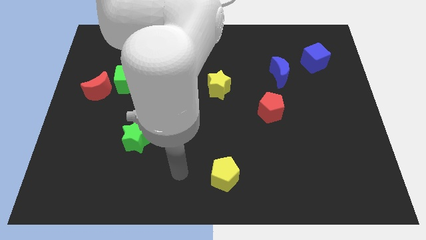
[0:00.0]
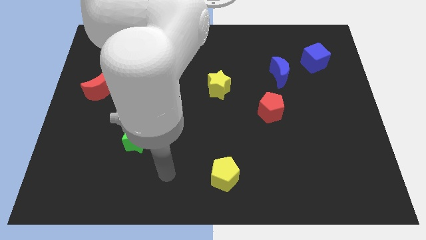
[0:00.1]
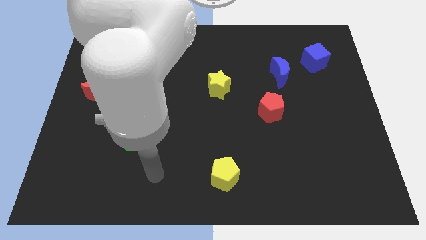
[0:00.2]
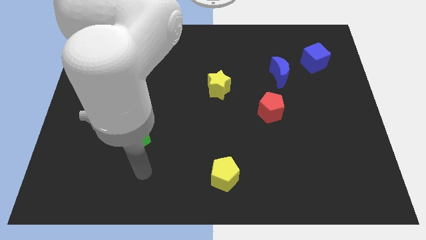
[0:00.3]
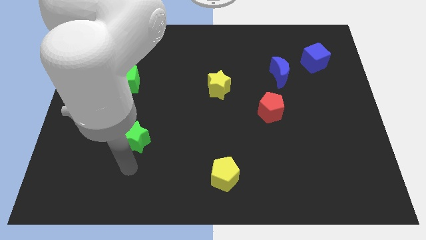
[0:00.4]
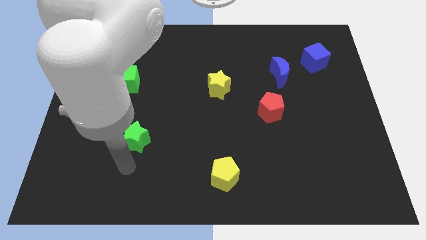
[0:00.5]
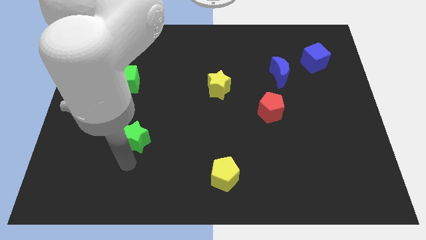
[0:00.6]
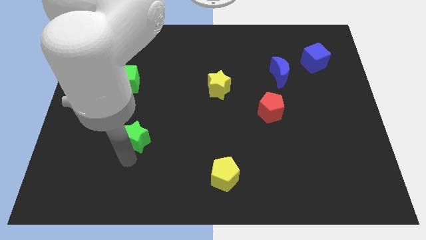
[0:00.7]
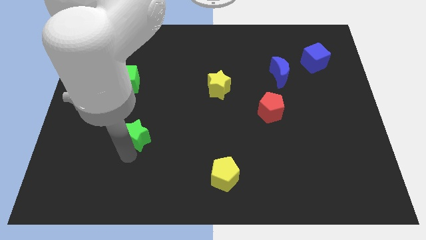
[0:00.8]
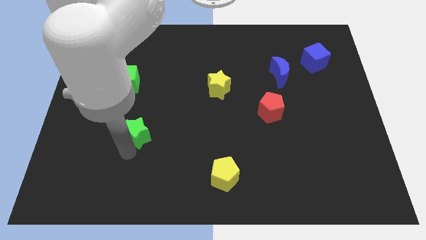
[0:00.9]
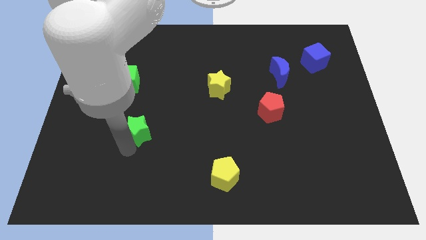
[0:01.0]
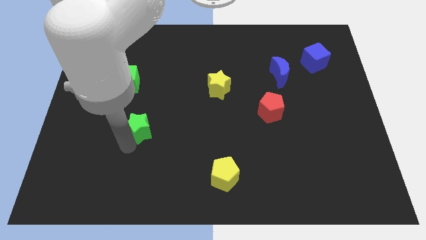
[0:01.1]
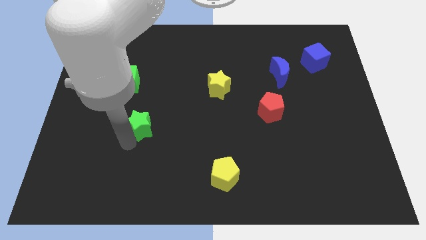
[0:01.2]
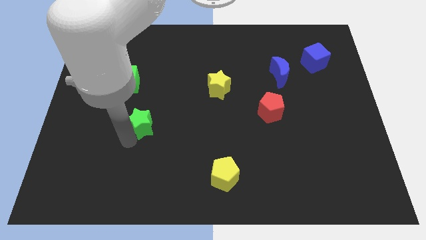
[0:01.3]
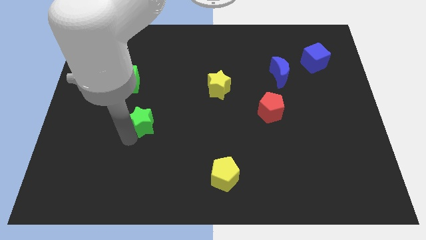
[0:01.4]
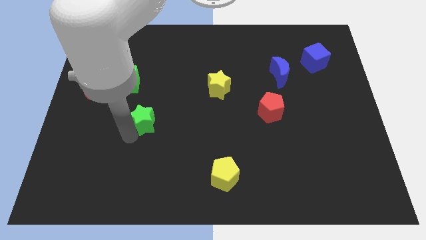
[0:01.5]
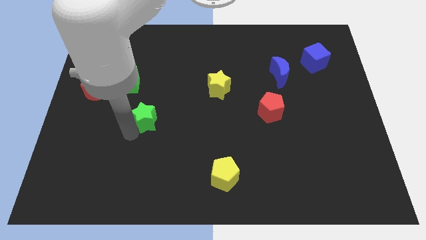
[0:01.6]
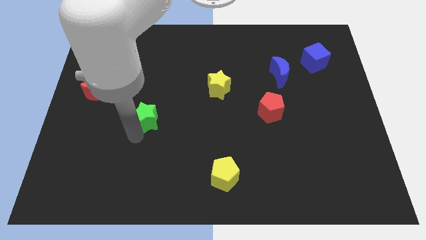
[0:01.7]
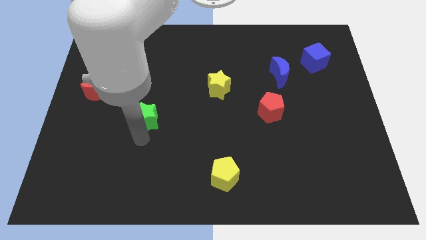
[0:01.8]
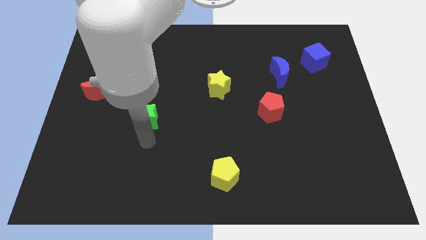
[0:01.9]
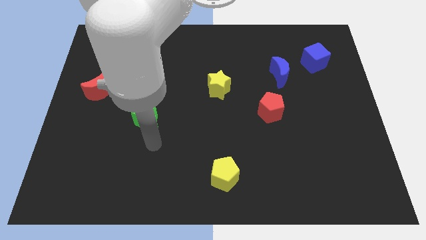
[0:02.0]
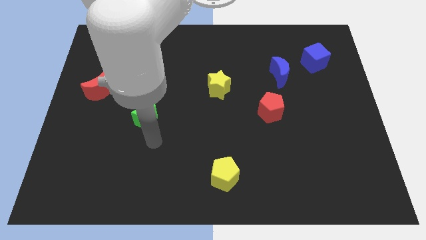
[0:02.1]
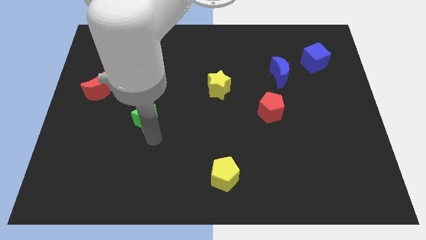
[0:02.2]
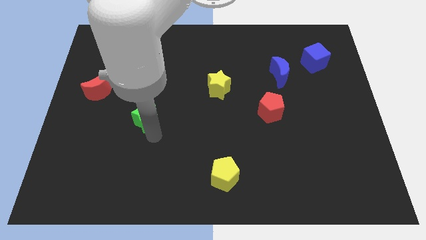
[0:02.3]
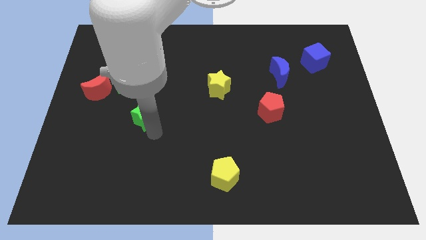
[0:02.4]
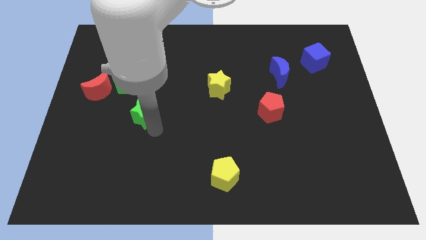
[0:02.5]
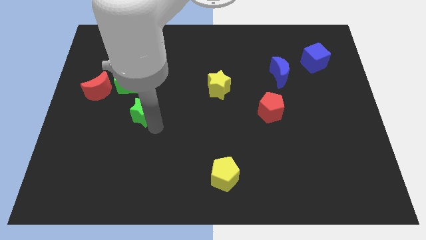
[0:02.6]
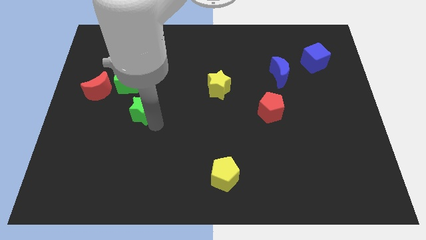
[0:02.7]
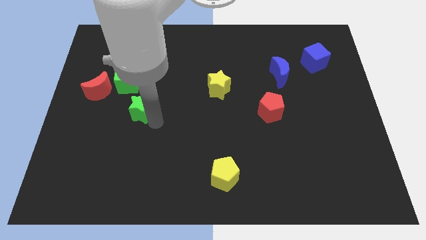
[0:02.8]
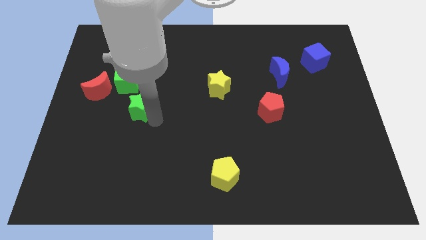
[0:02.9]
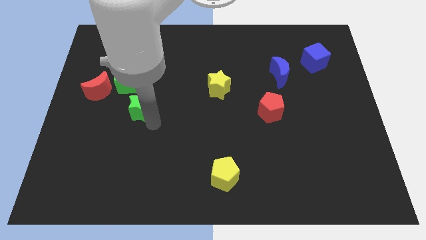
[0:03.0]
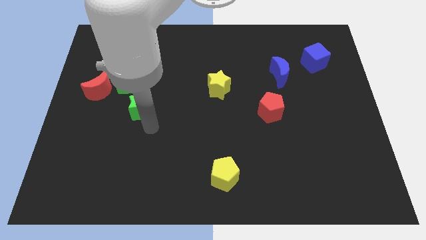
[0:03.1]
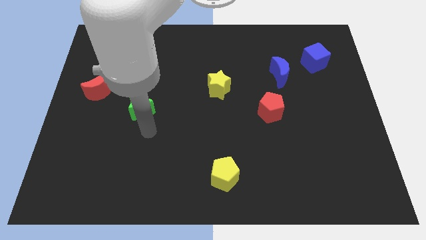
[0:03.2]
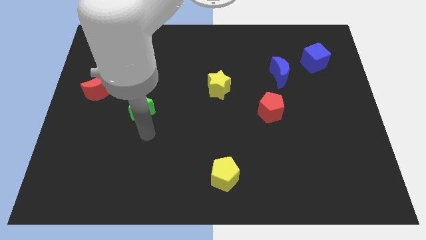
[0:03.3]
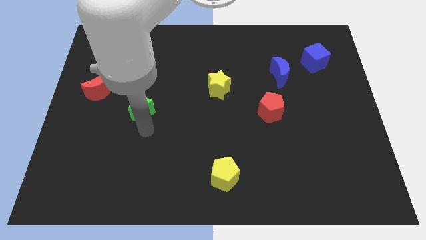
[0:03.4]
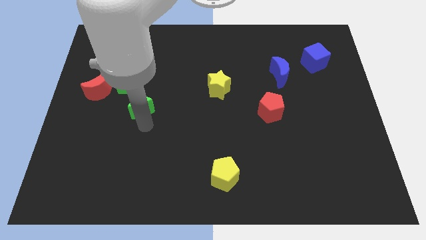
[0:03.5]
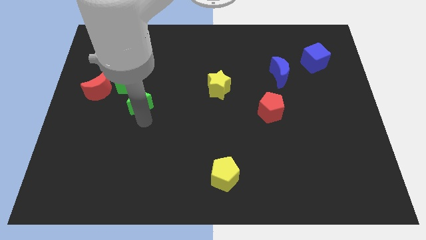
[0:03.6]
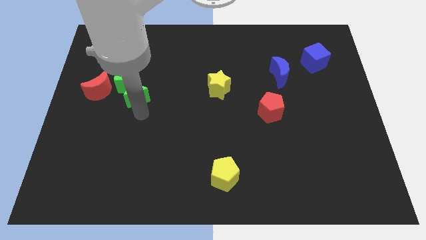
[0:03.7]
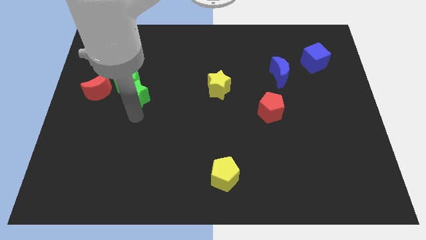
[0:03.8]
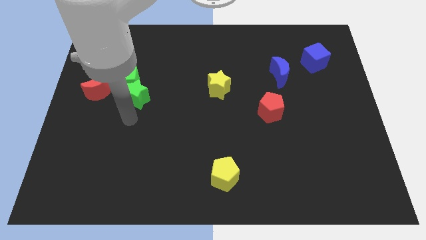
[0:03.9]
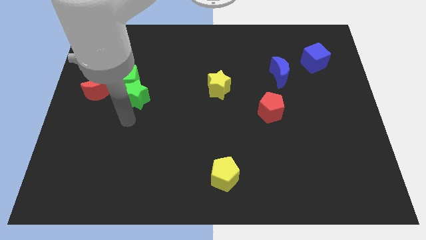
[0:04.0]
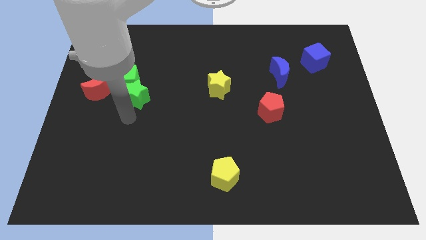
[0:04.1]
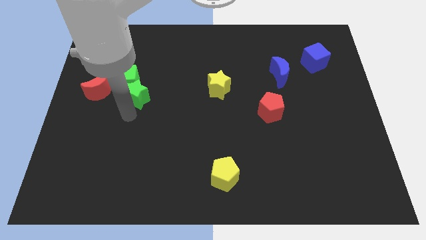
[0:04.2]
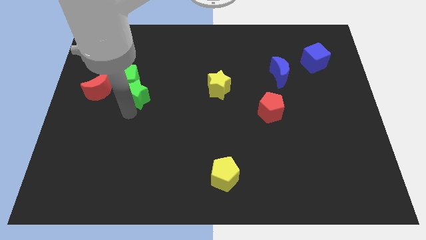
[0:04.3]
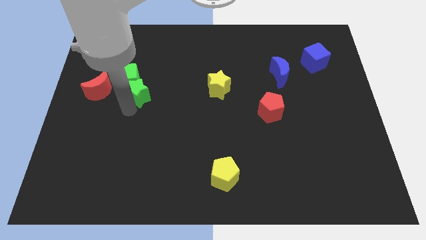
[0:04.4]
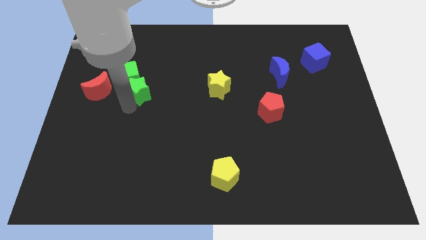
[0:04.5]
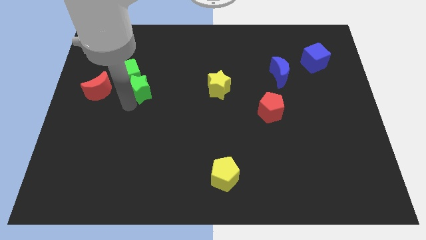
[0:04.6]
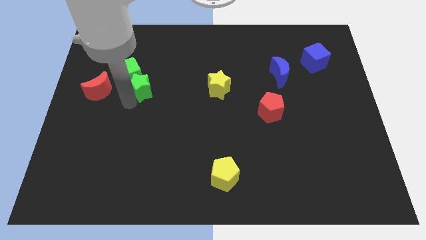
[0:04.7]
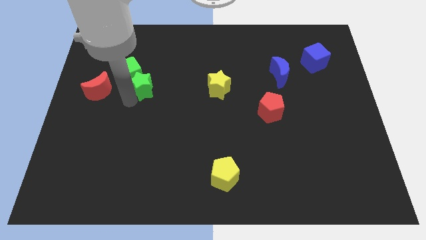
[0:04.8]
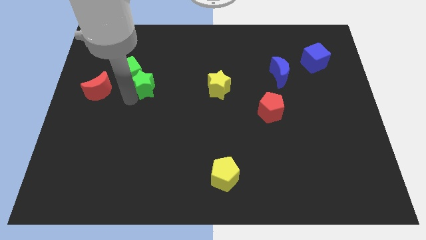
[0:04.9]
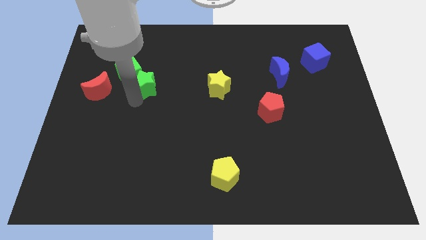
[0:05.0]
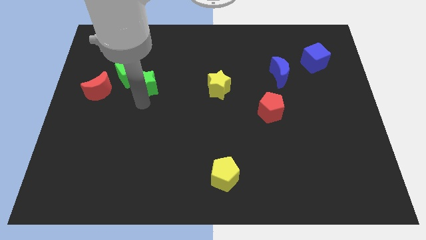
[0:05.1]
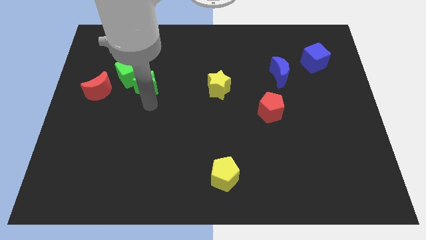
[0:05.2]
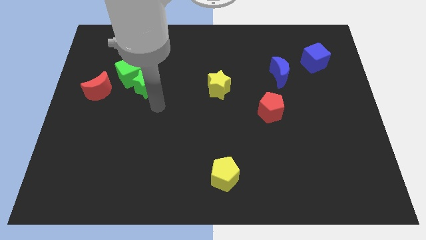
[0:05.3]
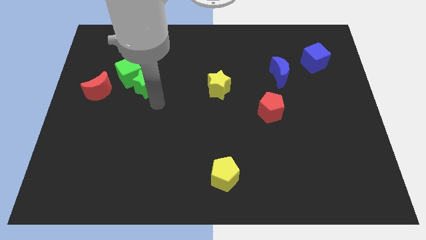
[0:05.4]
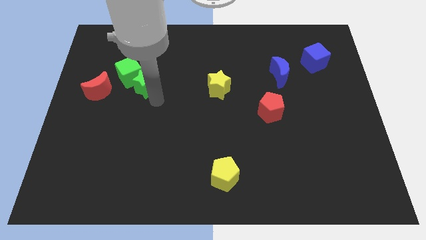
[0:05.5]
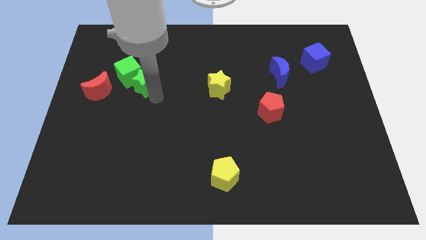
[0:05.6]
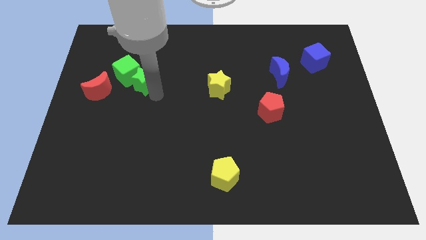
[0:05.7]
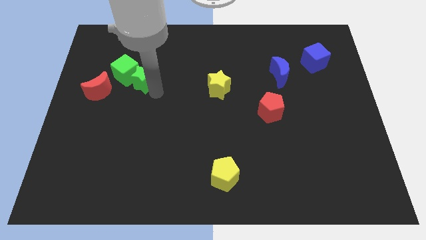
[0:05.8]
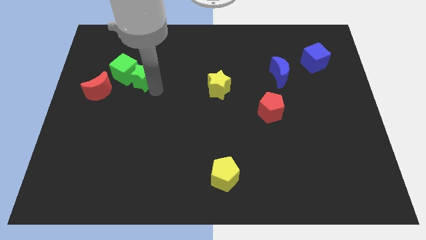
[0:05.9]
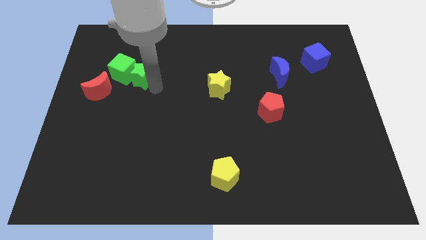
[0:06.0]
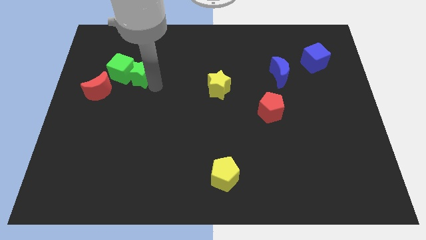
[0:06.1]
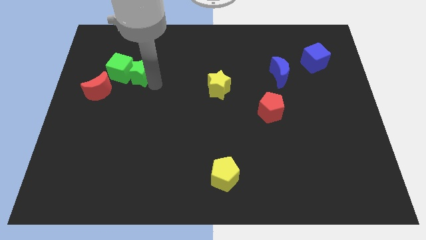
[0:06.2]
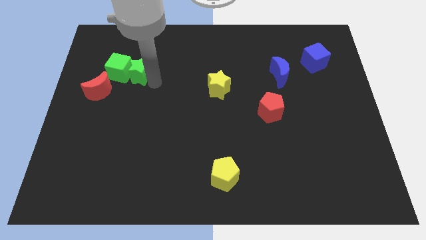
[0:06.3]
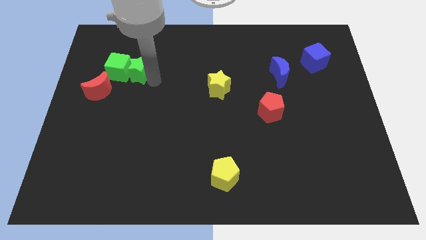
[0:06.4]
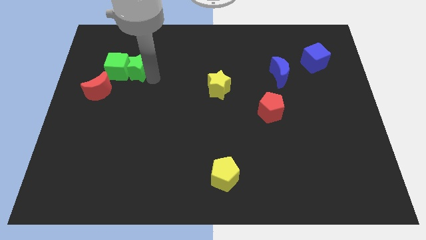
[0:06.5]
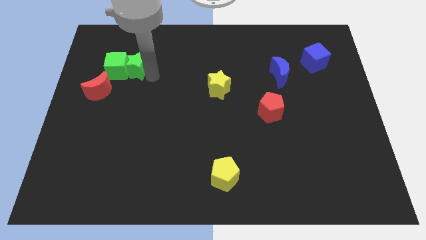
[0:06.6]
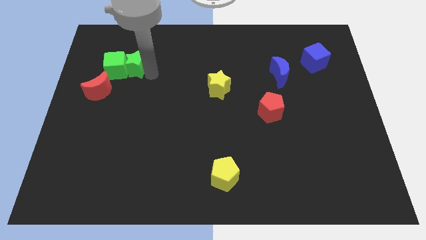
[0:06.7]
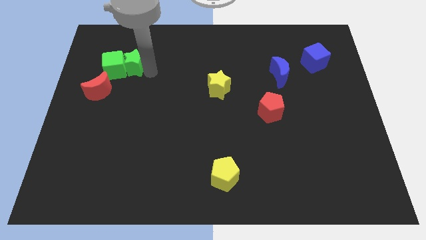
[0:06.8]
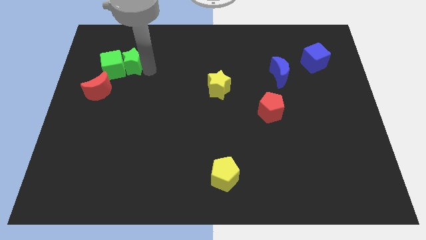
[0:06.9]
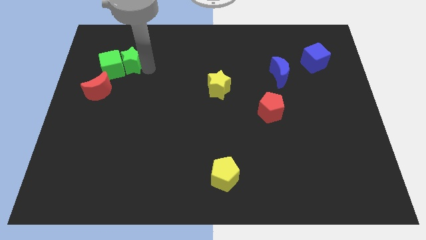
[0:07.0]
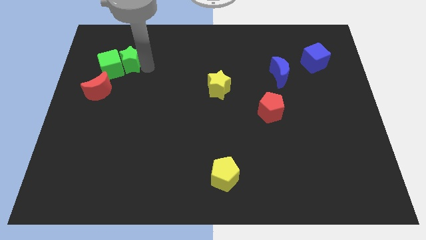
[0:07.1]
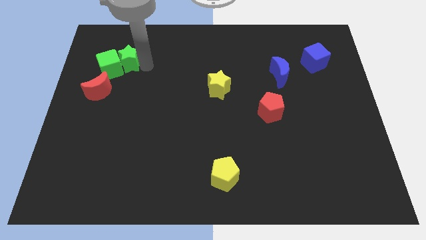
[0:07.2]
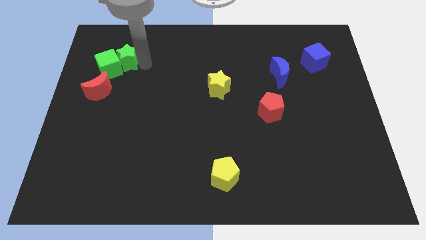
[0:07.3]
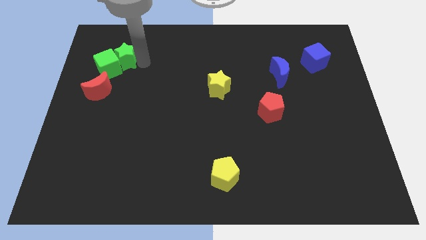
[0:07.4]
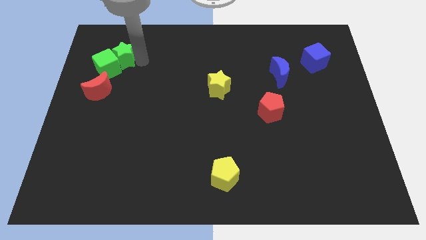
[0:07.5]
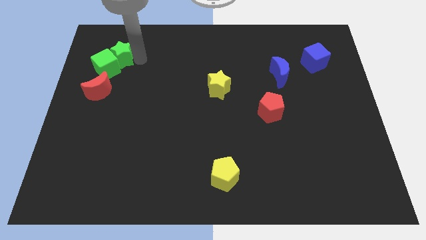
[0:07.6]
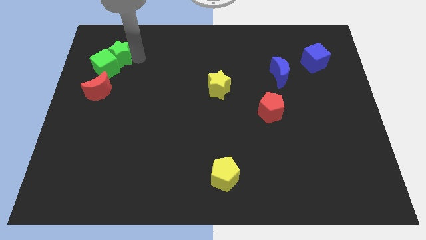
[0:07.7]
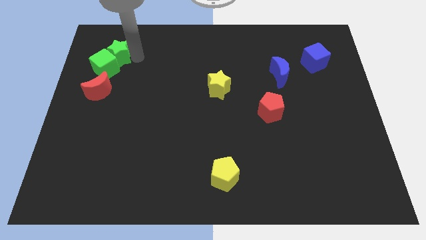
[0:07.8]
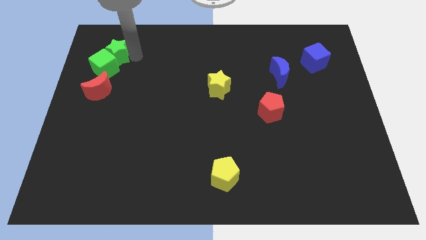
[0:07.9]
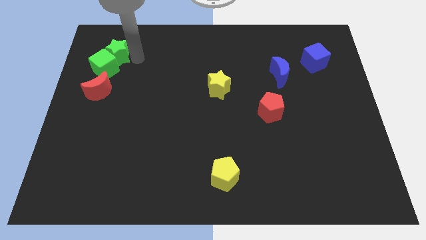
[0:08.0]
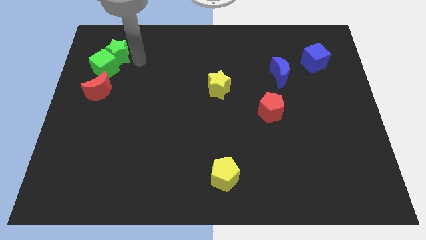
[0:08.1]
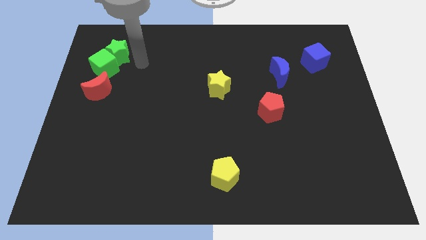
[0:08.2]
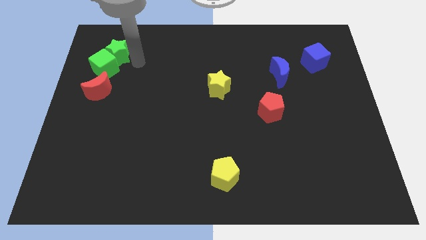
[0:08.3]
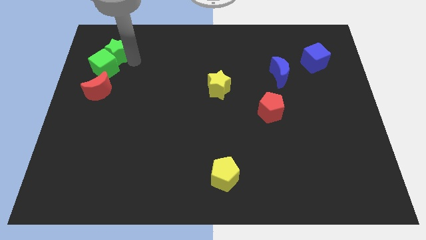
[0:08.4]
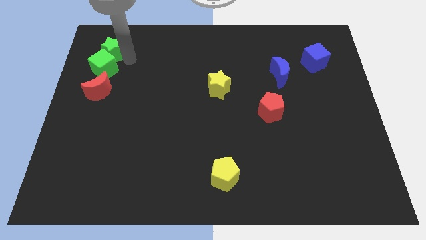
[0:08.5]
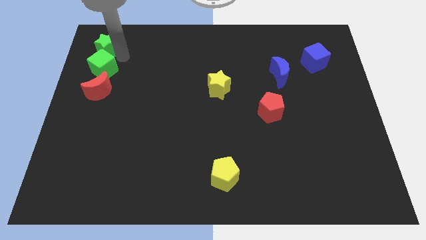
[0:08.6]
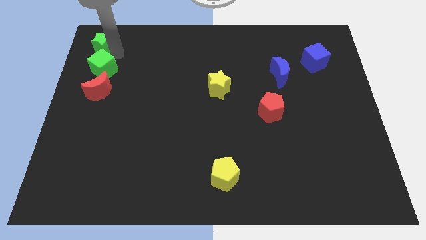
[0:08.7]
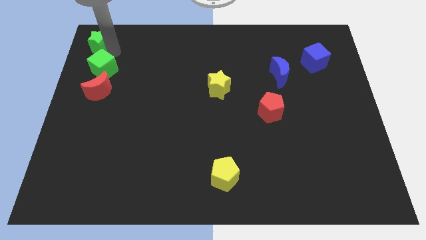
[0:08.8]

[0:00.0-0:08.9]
put the green star to the top left
